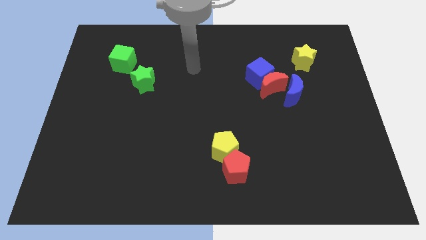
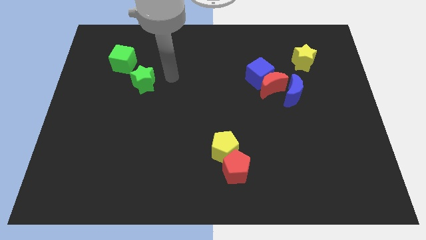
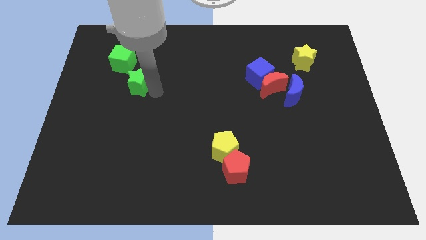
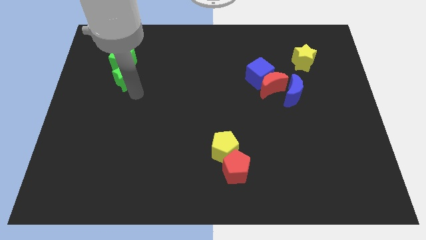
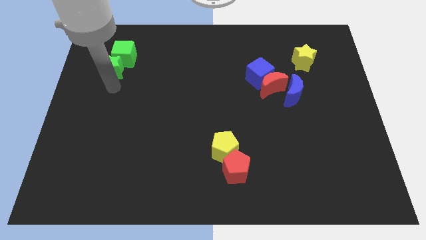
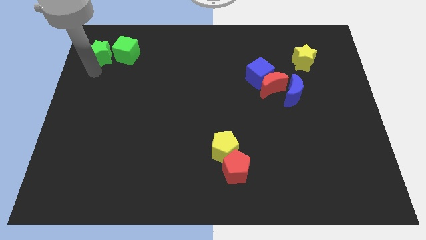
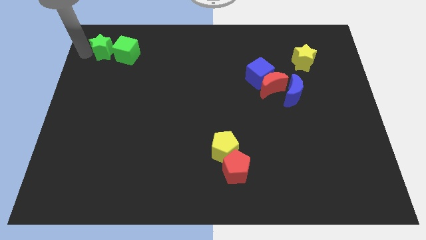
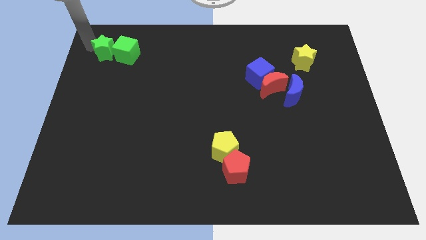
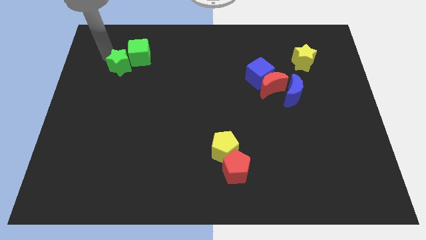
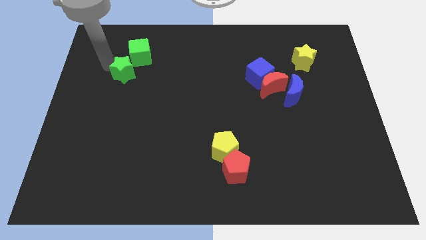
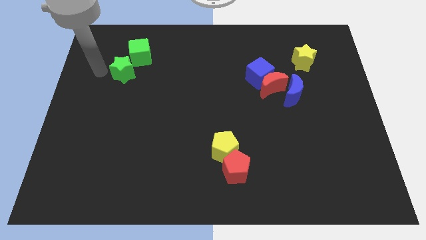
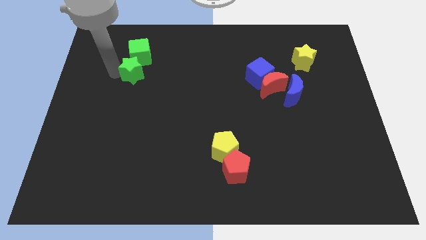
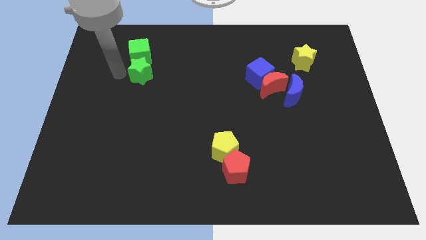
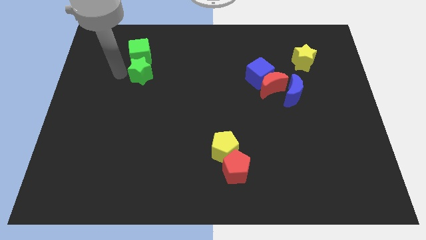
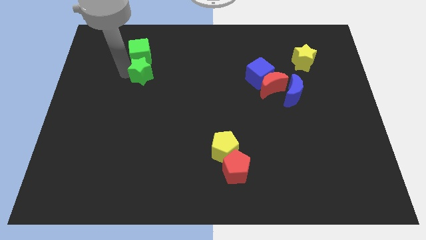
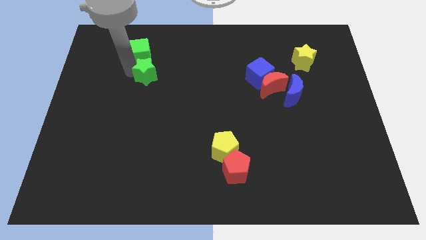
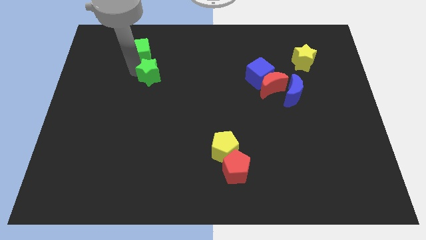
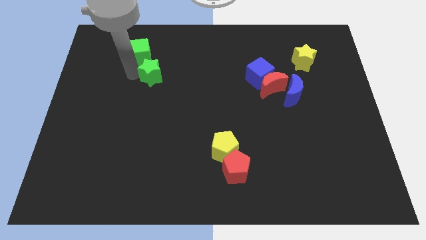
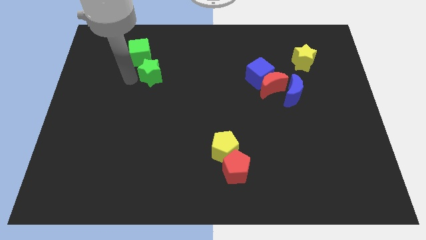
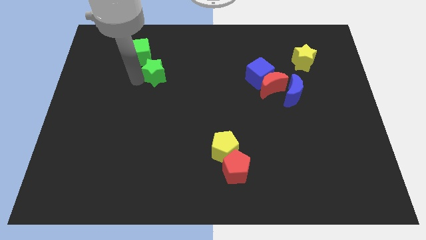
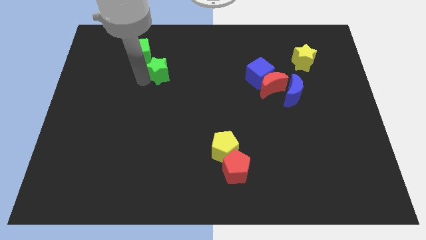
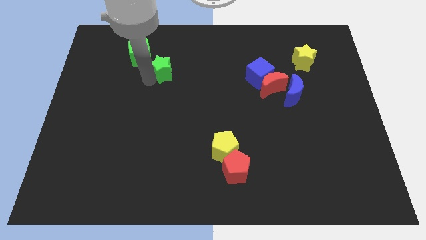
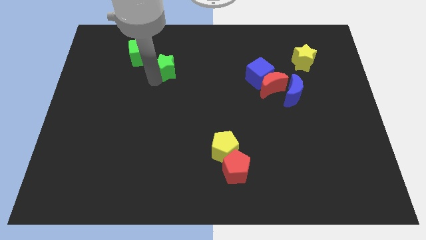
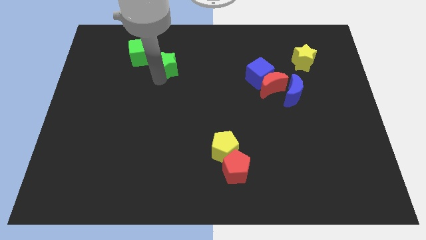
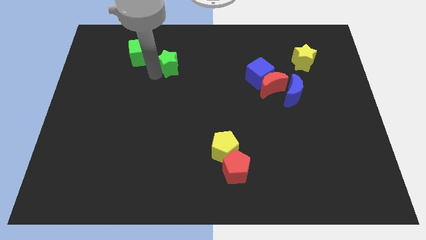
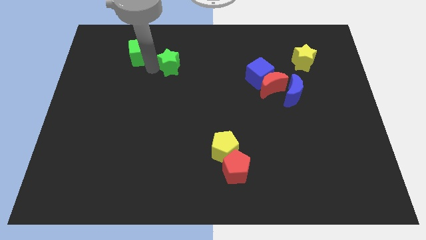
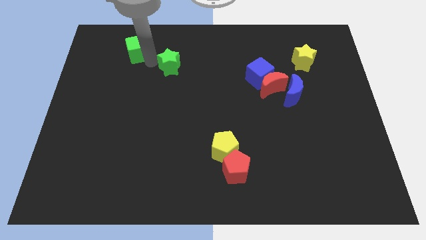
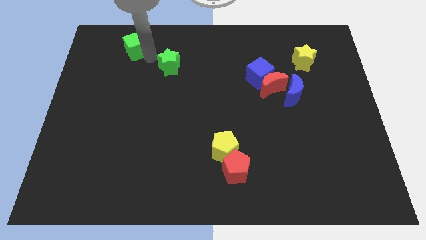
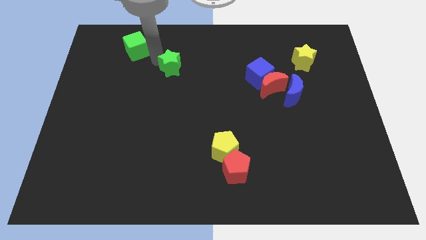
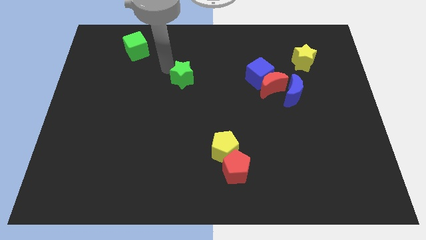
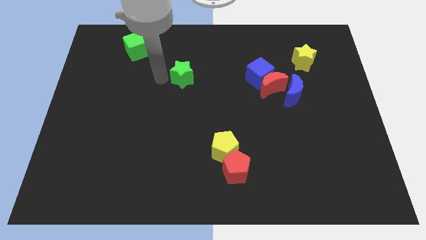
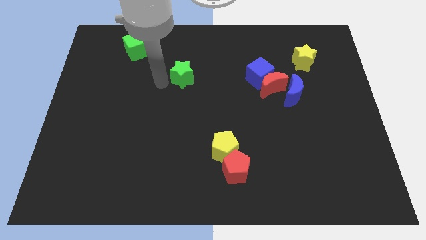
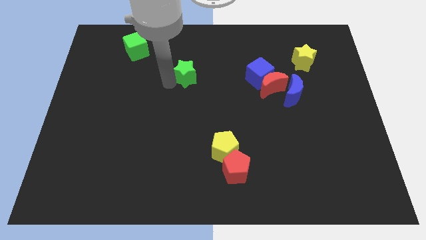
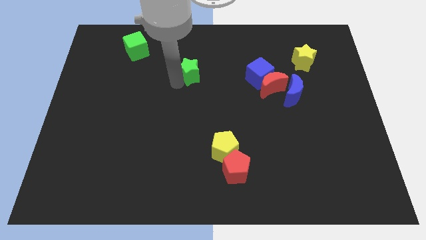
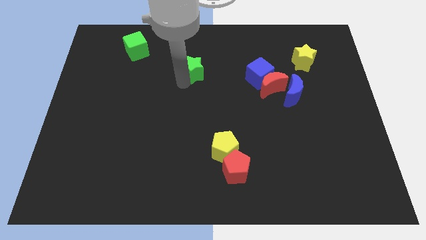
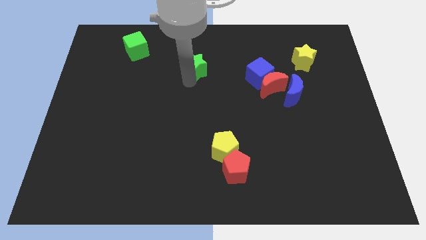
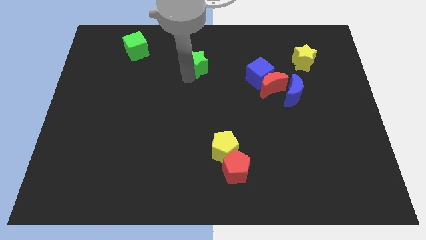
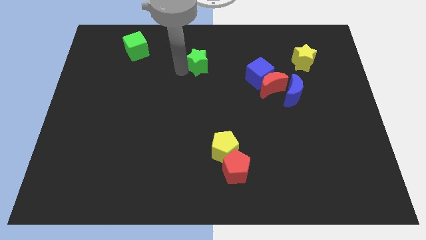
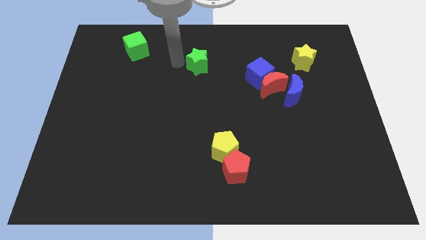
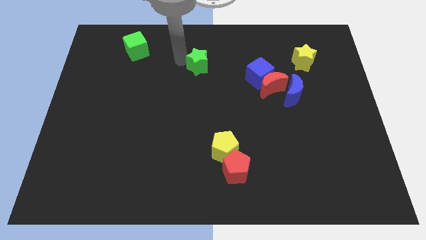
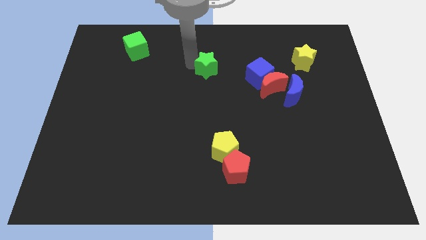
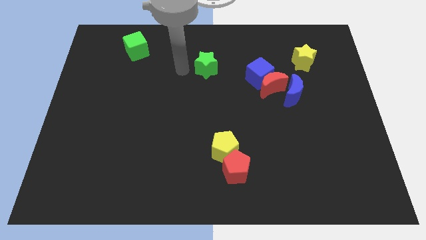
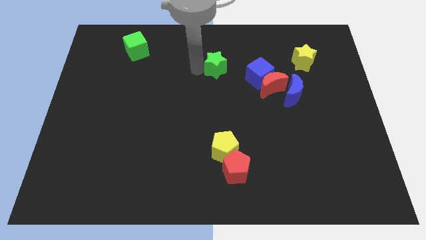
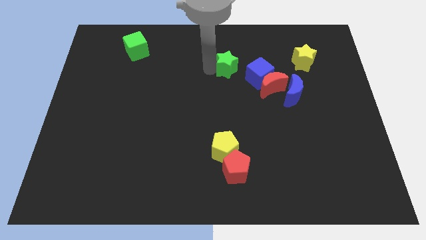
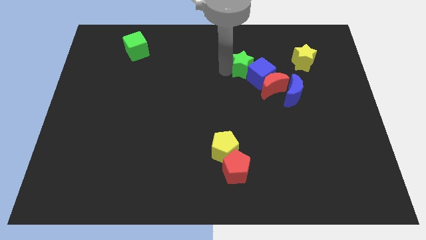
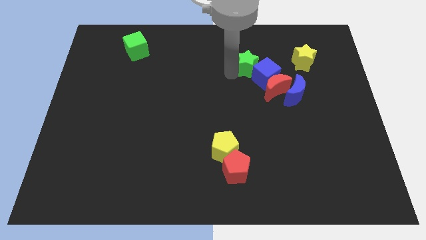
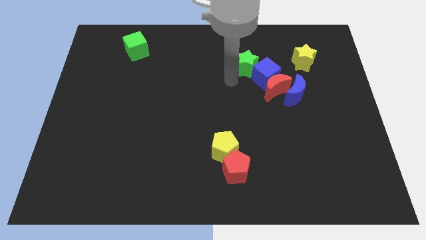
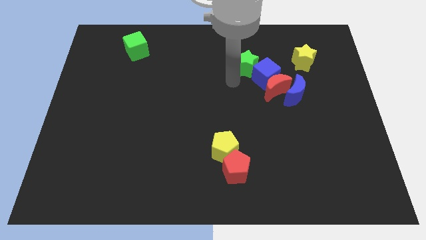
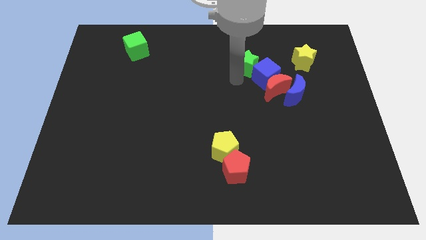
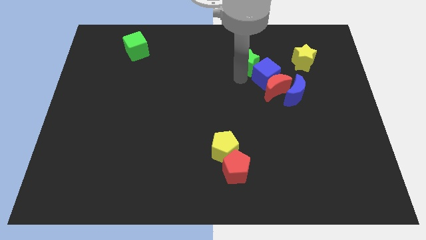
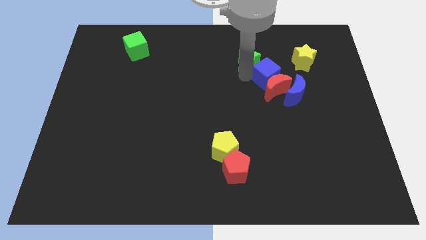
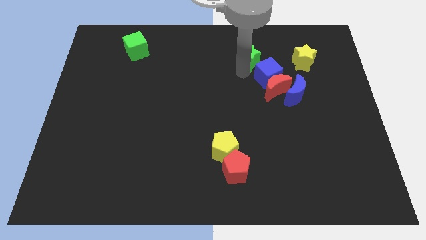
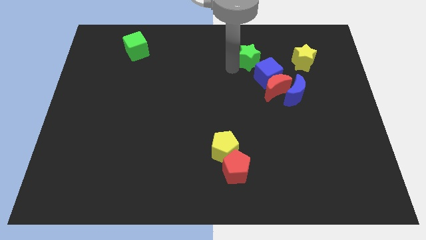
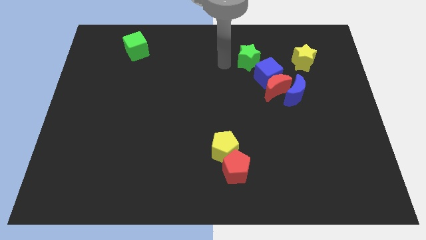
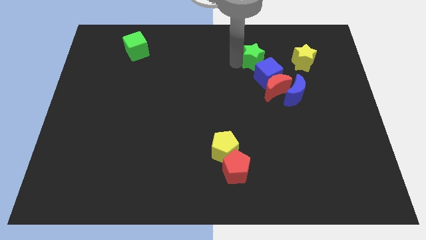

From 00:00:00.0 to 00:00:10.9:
slide the green star to the top side of the red moon

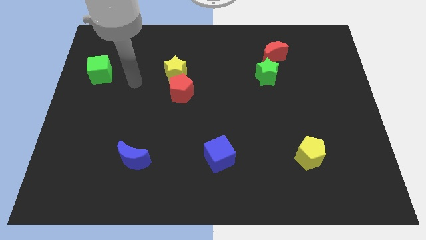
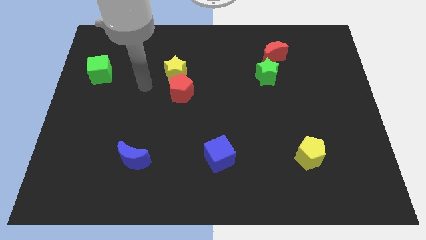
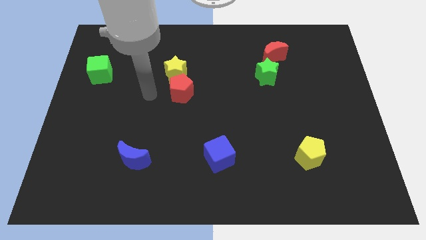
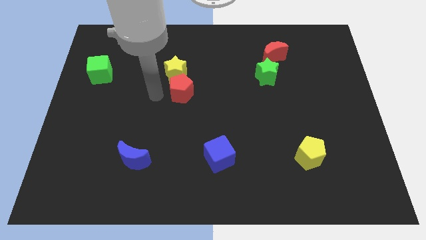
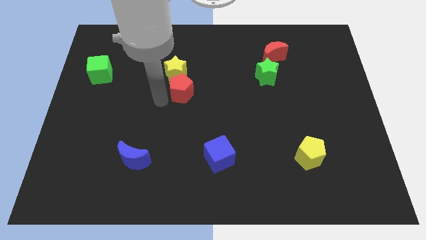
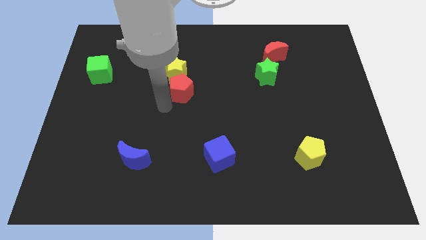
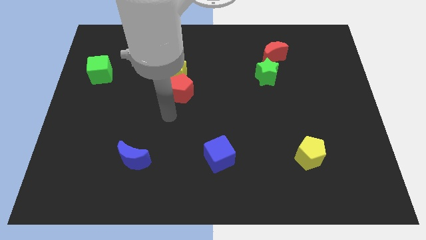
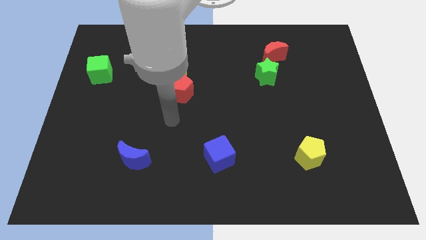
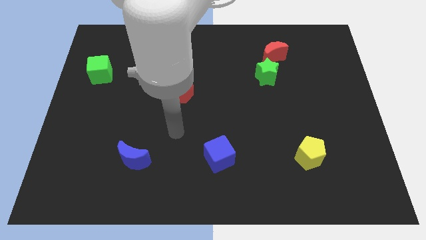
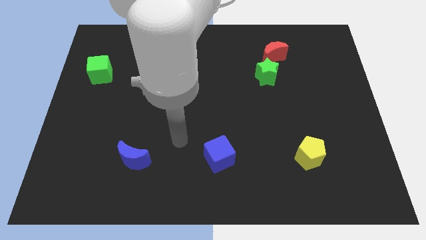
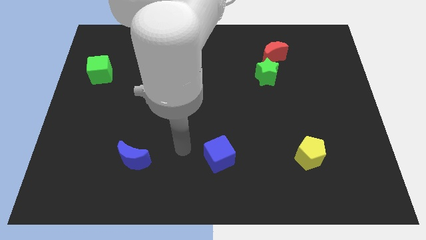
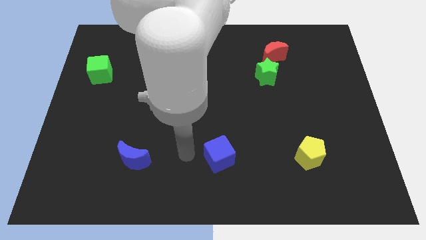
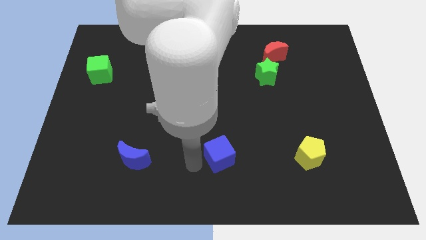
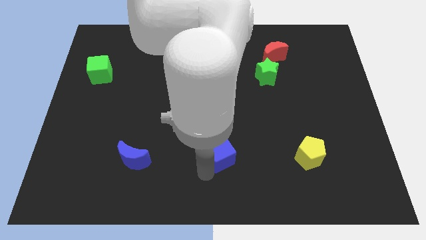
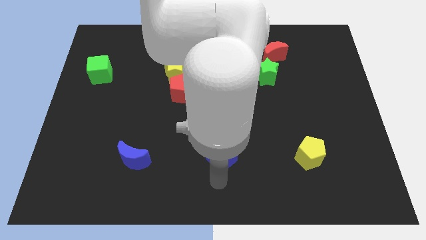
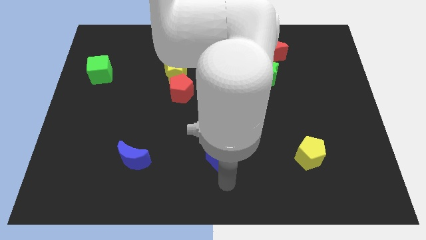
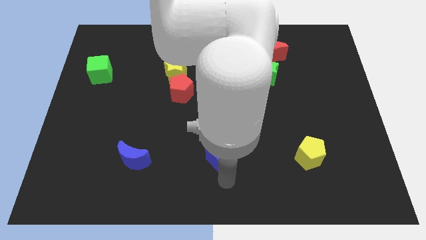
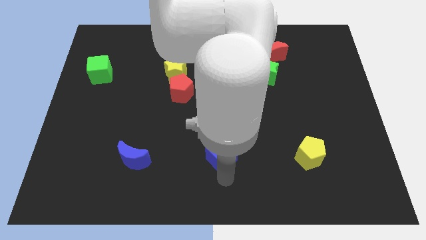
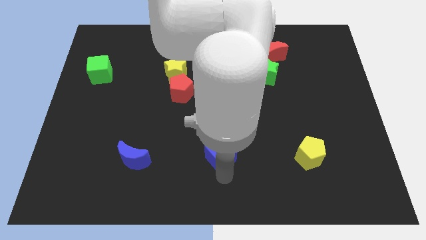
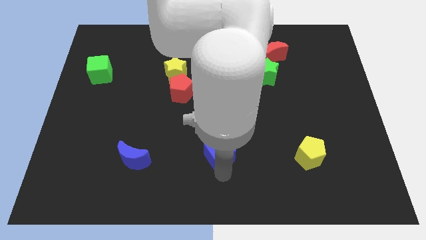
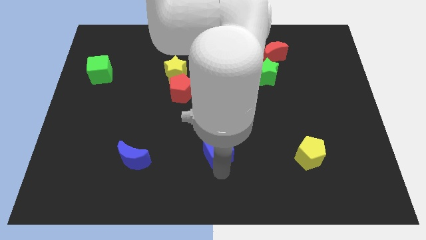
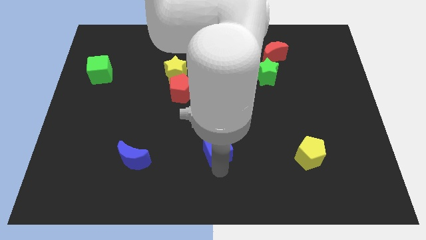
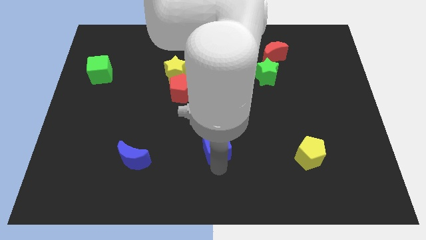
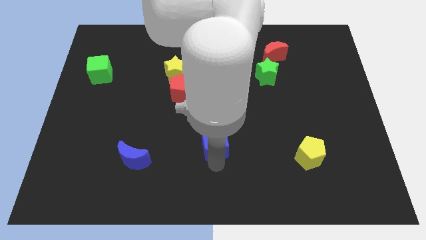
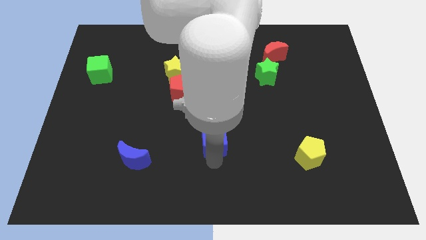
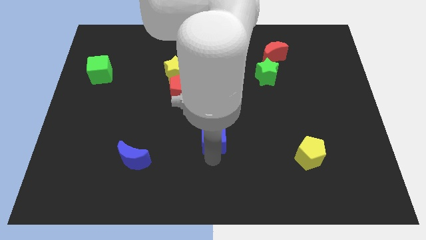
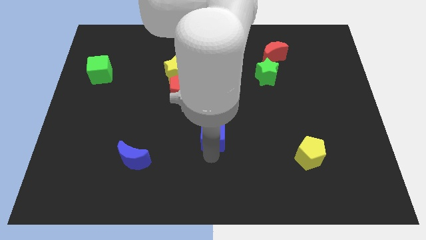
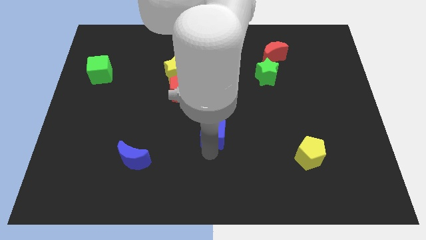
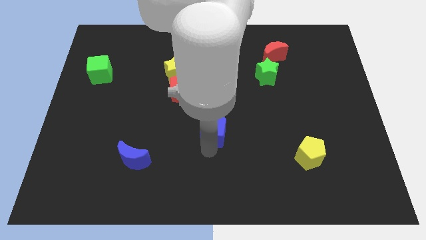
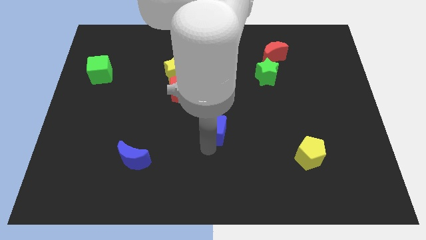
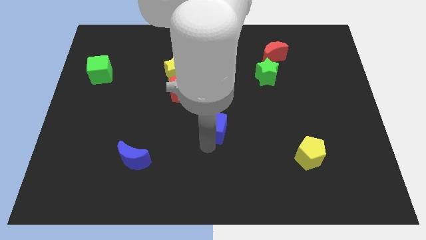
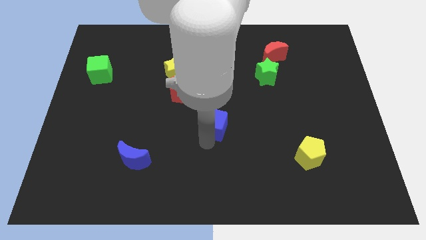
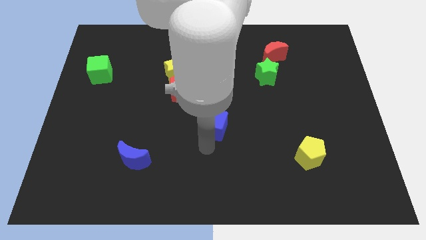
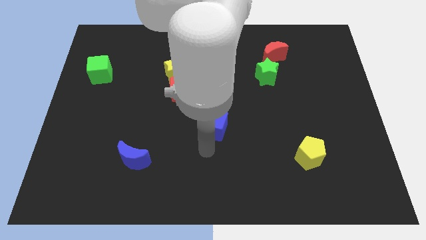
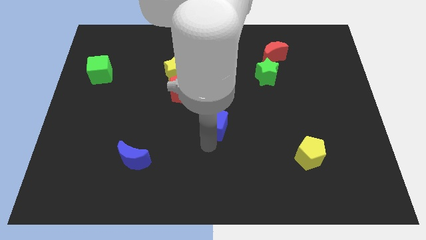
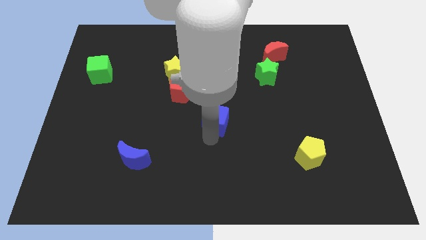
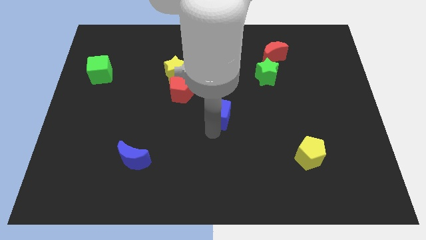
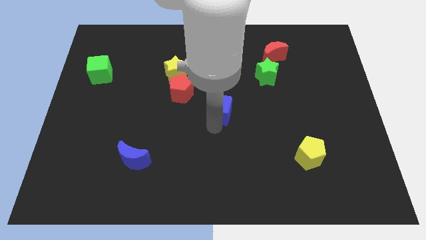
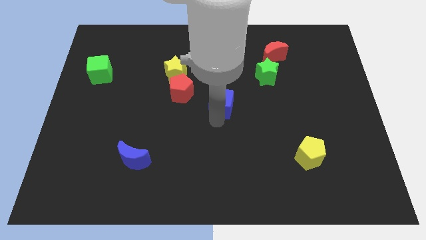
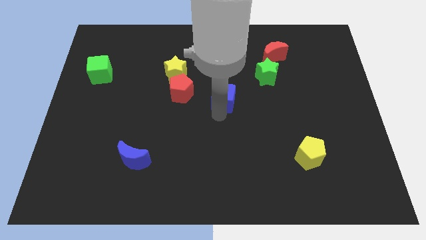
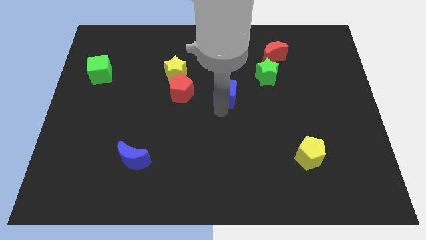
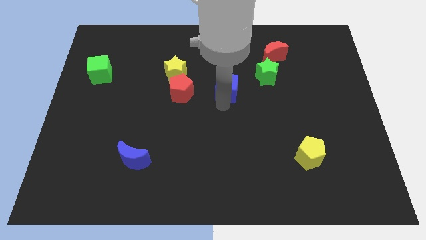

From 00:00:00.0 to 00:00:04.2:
push the blue cube just left of the green star
